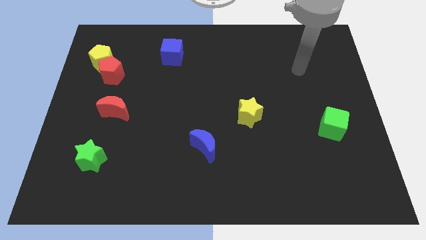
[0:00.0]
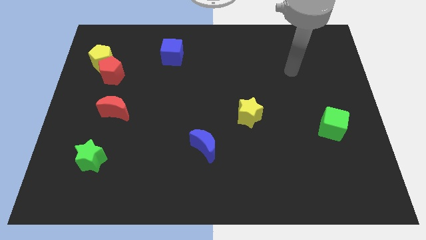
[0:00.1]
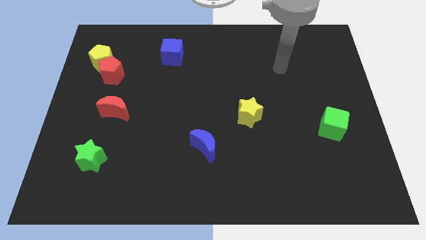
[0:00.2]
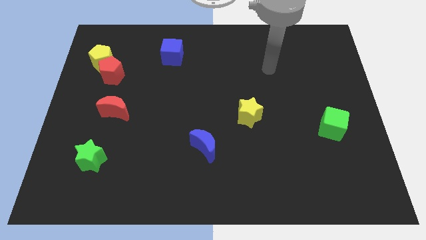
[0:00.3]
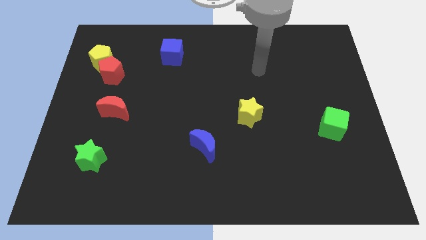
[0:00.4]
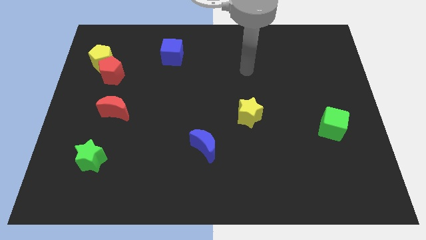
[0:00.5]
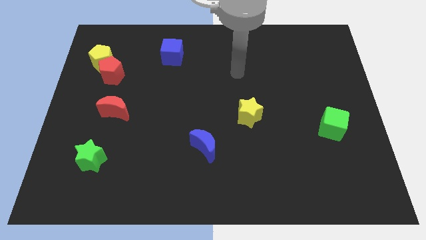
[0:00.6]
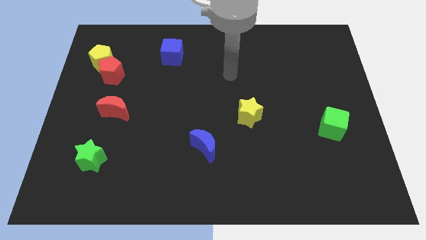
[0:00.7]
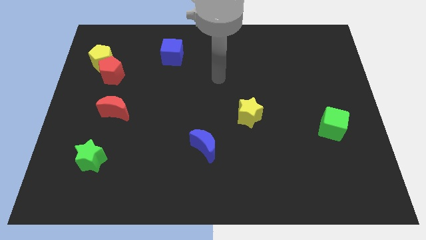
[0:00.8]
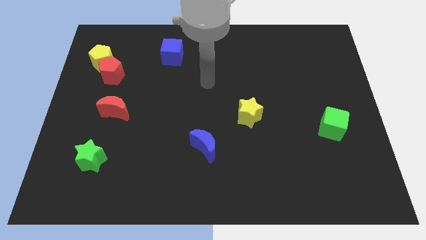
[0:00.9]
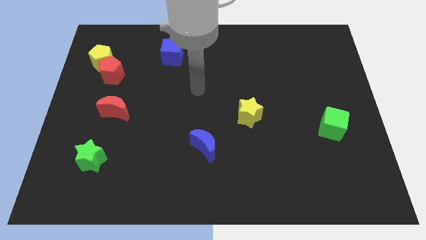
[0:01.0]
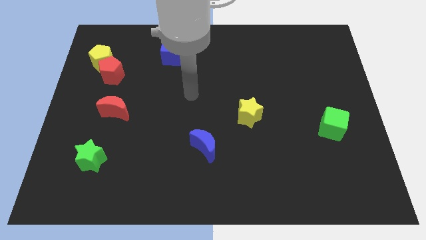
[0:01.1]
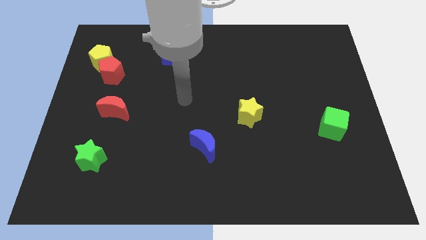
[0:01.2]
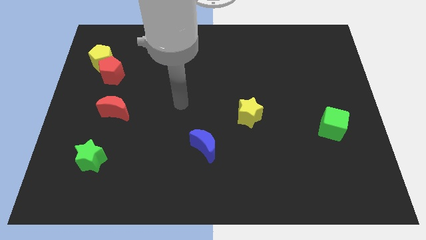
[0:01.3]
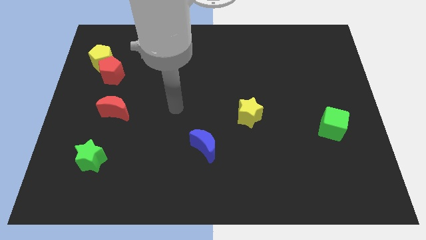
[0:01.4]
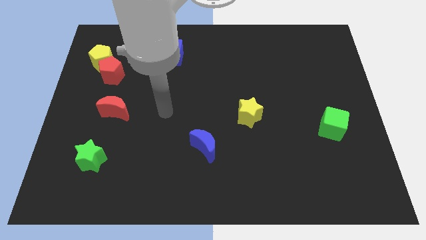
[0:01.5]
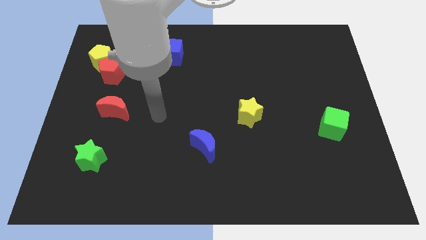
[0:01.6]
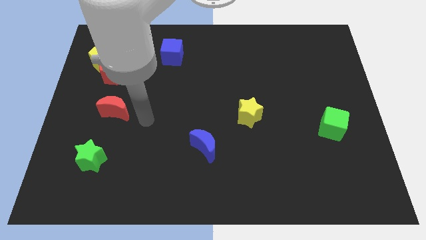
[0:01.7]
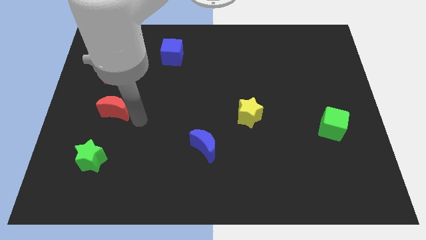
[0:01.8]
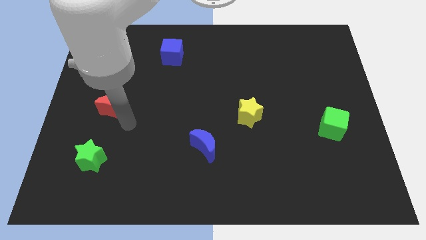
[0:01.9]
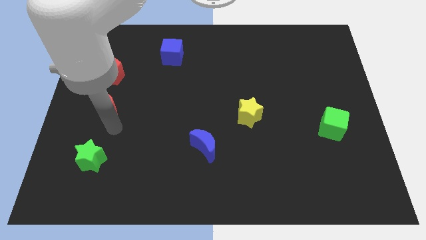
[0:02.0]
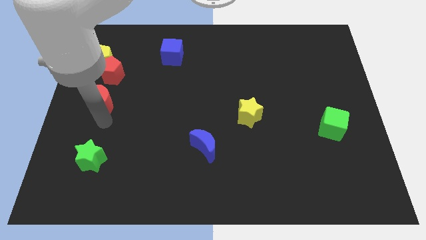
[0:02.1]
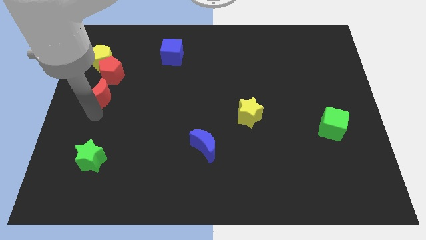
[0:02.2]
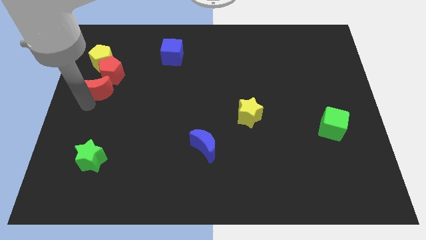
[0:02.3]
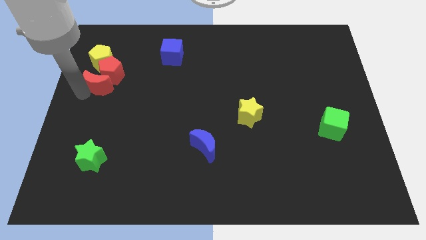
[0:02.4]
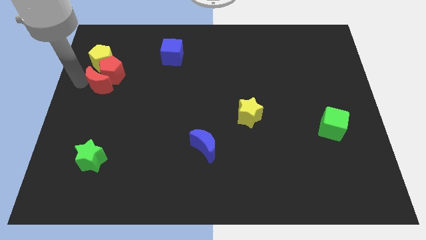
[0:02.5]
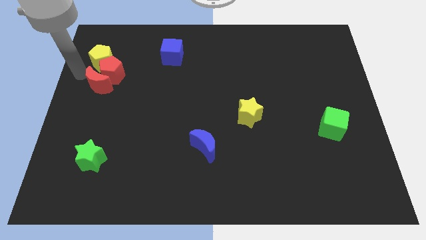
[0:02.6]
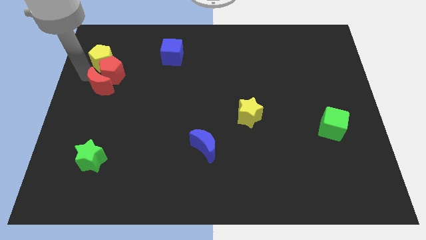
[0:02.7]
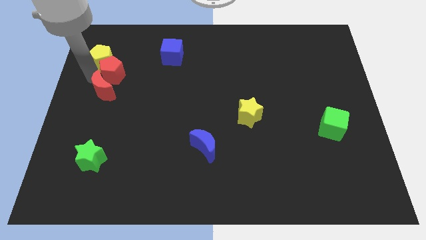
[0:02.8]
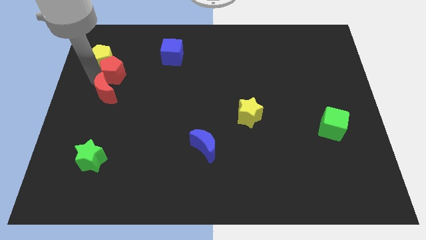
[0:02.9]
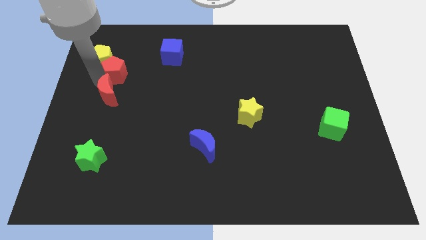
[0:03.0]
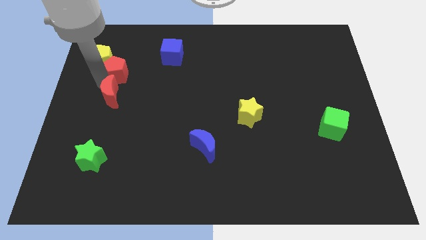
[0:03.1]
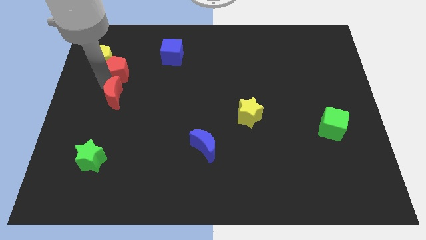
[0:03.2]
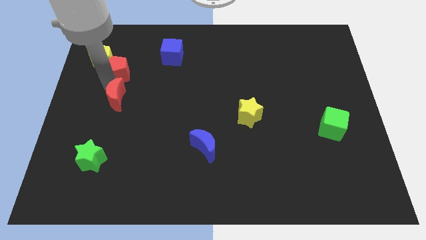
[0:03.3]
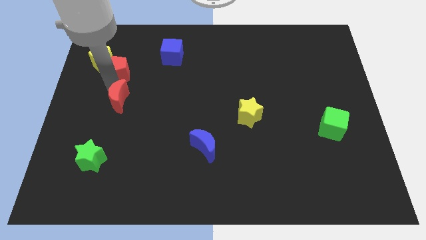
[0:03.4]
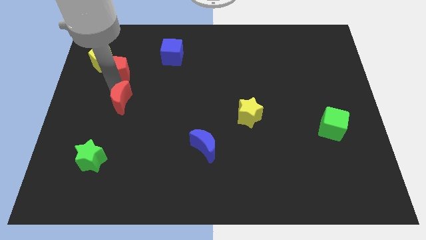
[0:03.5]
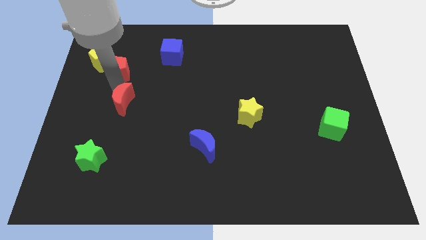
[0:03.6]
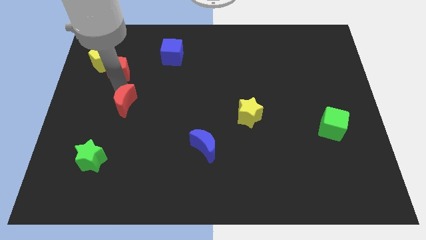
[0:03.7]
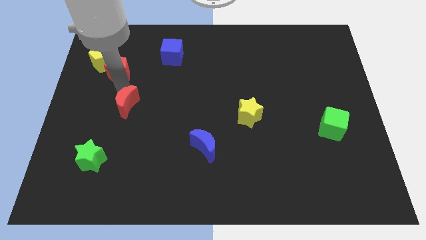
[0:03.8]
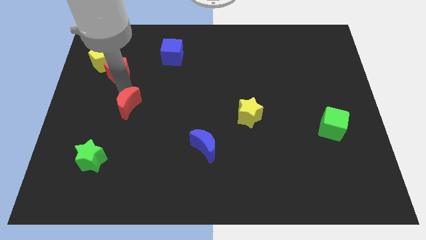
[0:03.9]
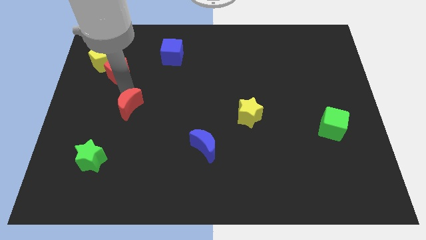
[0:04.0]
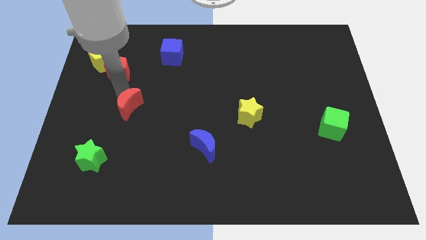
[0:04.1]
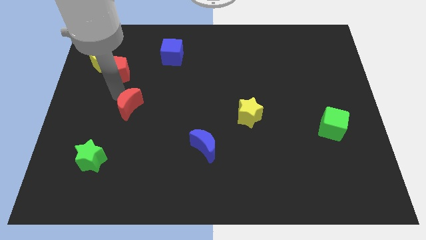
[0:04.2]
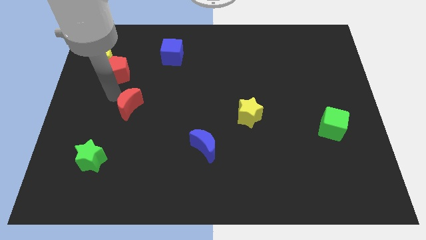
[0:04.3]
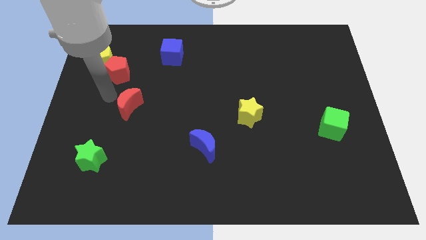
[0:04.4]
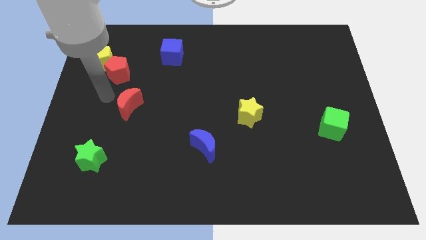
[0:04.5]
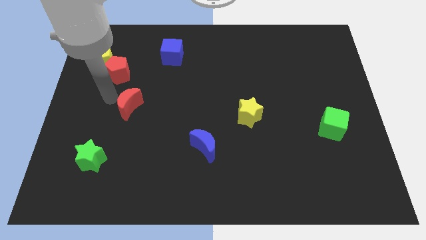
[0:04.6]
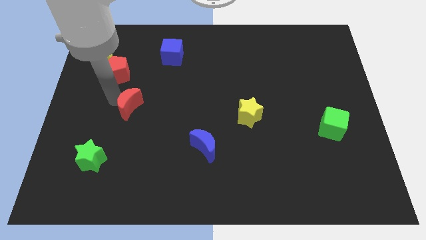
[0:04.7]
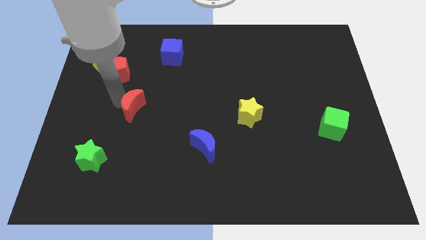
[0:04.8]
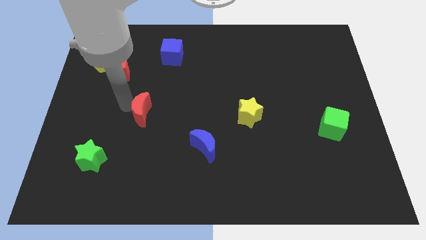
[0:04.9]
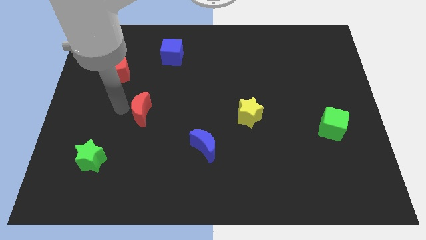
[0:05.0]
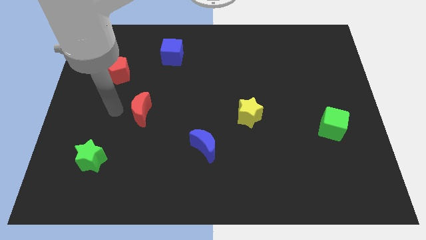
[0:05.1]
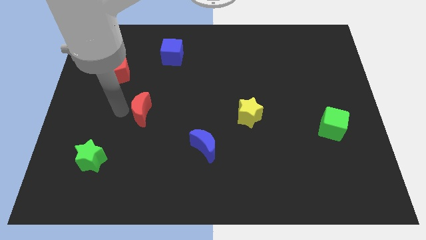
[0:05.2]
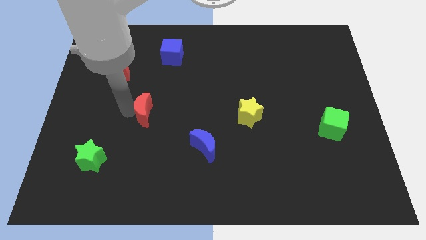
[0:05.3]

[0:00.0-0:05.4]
push the red moon to the right a little bit

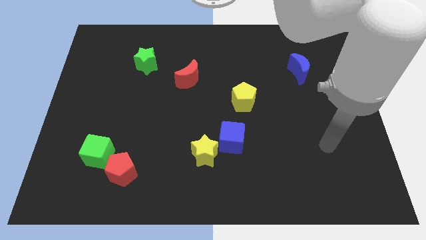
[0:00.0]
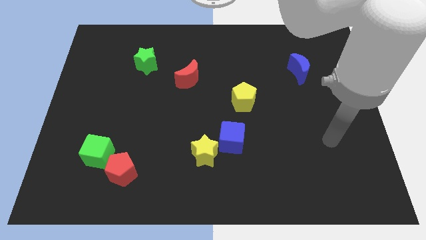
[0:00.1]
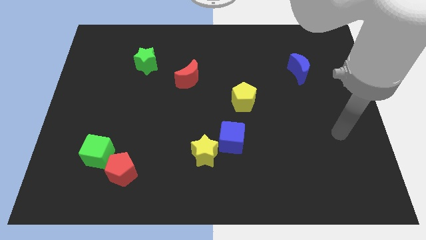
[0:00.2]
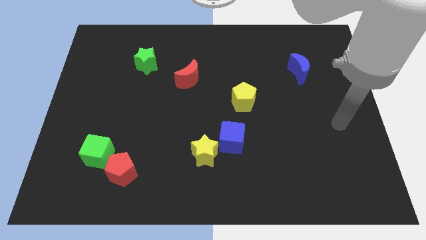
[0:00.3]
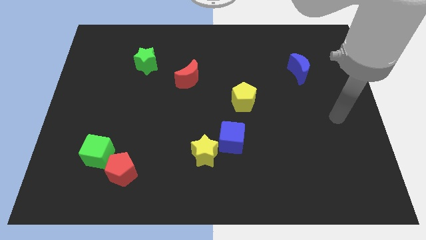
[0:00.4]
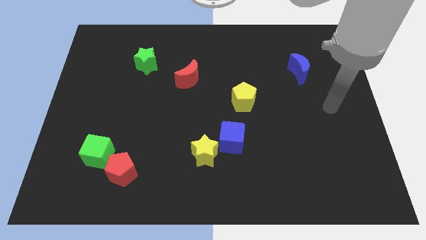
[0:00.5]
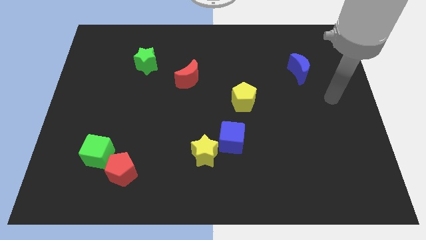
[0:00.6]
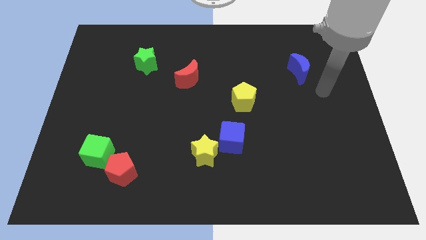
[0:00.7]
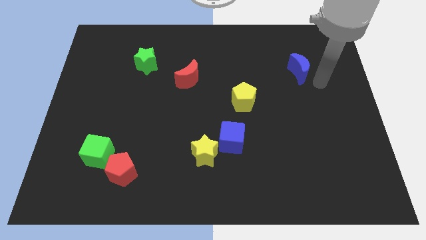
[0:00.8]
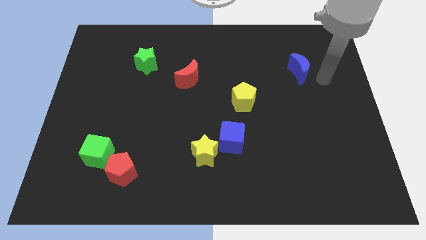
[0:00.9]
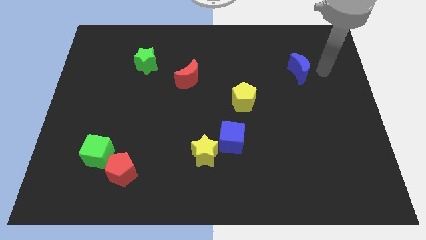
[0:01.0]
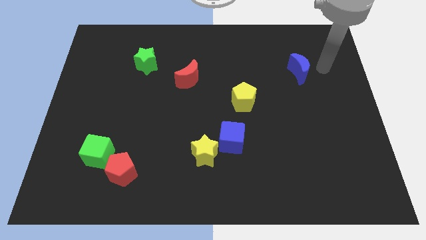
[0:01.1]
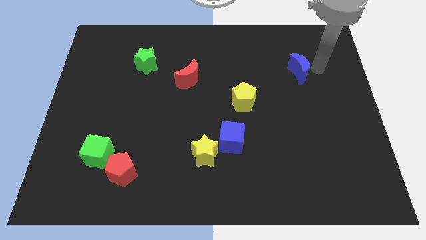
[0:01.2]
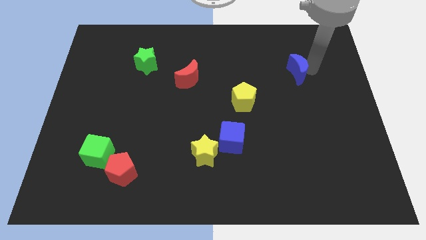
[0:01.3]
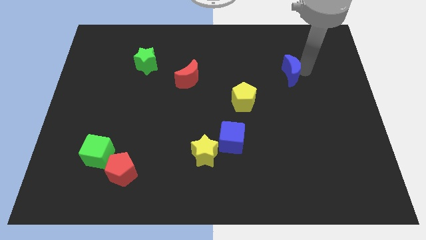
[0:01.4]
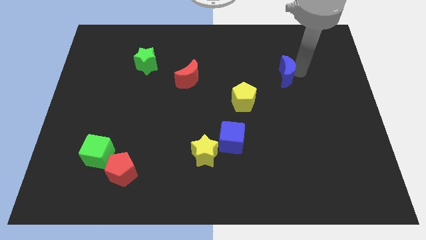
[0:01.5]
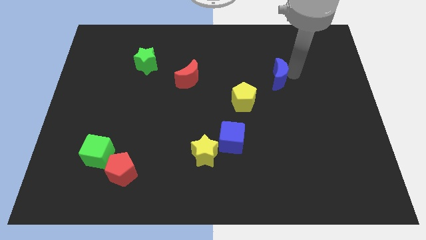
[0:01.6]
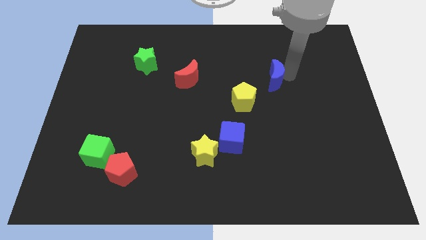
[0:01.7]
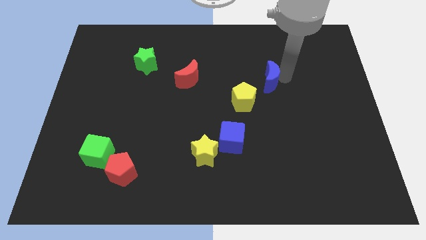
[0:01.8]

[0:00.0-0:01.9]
push the blue moon left a little bit

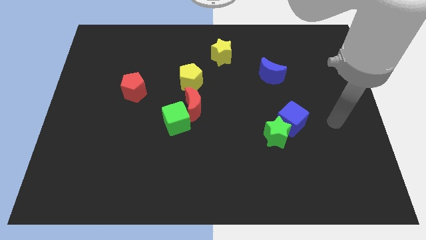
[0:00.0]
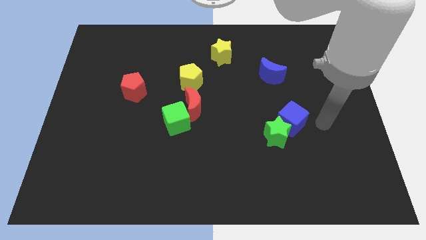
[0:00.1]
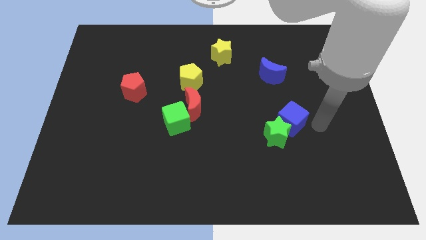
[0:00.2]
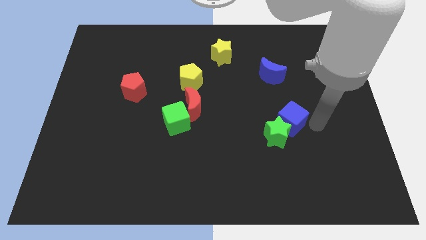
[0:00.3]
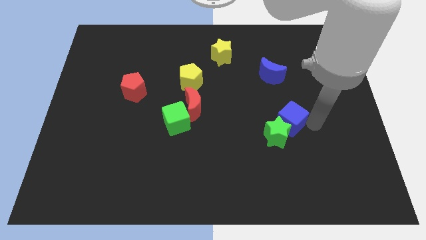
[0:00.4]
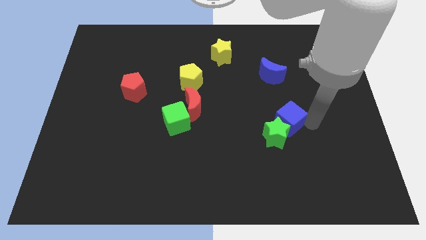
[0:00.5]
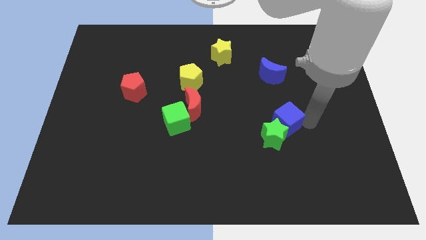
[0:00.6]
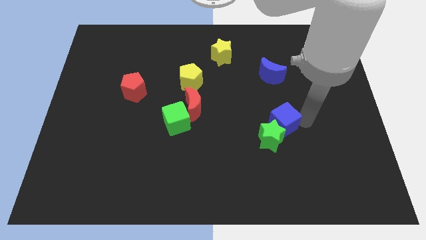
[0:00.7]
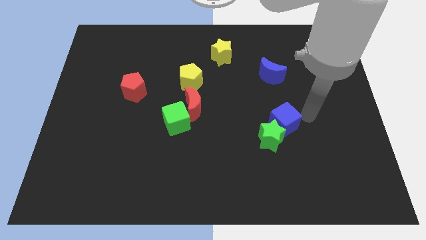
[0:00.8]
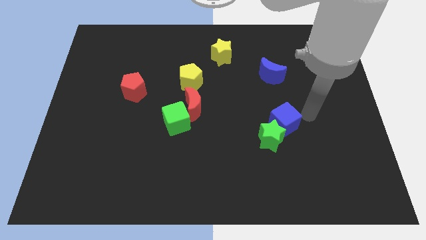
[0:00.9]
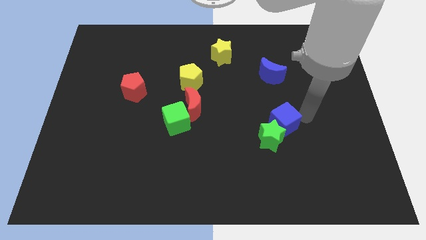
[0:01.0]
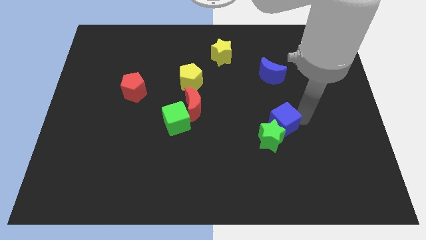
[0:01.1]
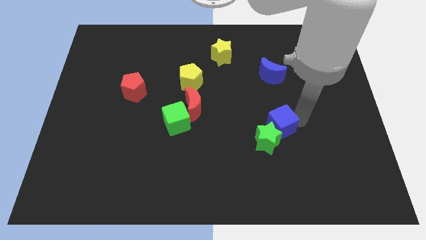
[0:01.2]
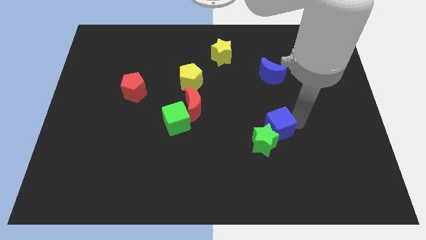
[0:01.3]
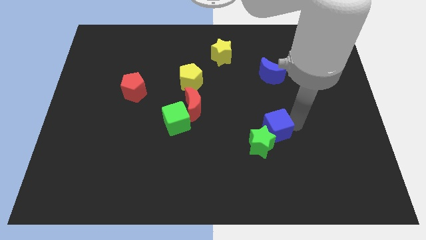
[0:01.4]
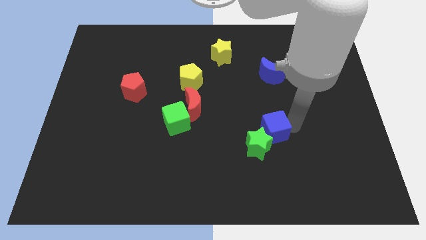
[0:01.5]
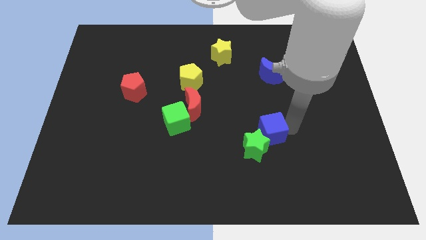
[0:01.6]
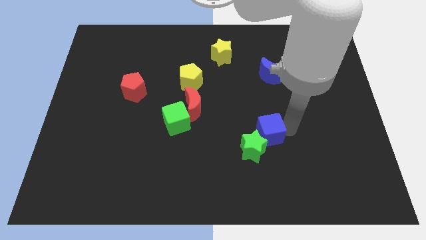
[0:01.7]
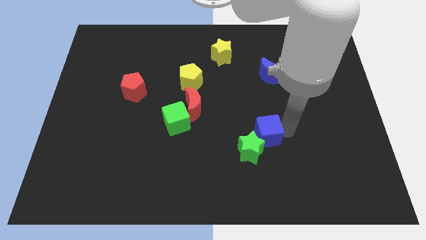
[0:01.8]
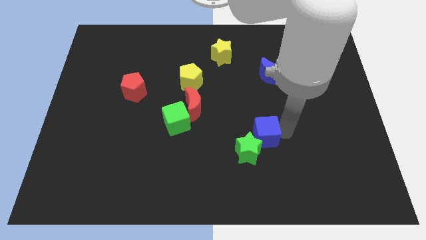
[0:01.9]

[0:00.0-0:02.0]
slightly move the blue cube down and left diagonally
